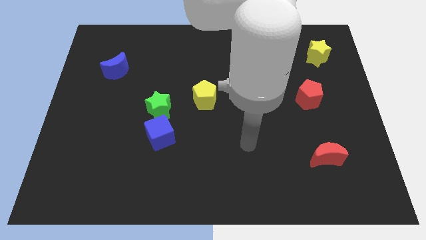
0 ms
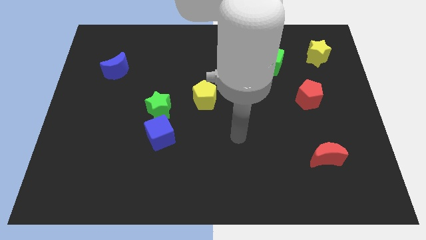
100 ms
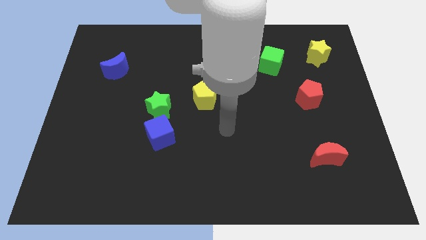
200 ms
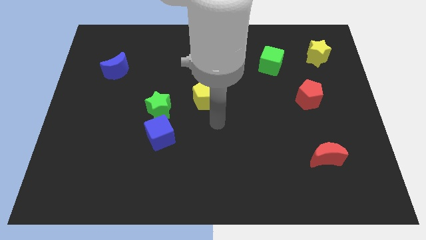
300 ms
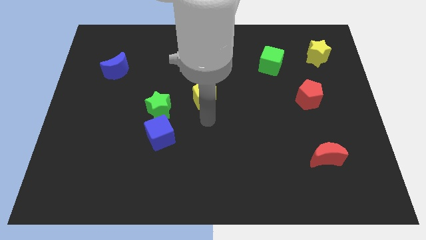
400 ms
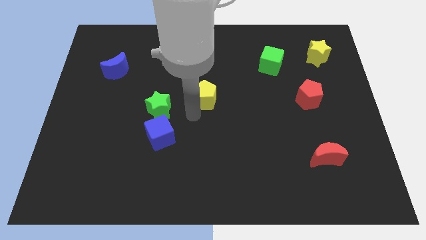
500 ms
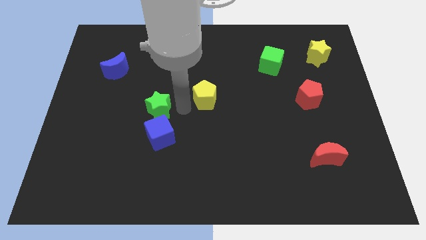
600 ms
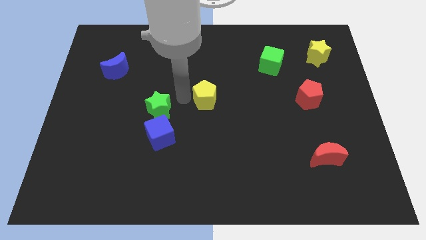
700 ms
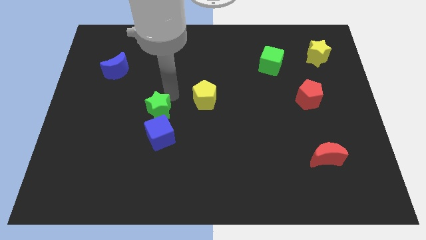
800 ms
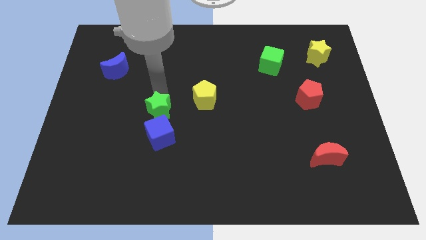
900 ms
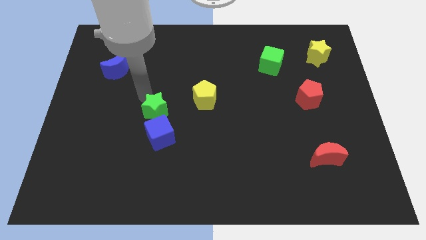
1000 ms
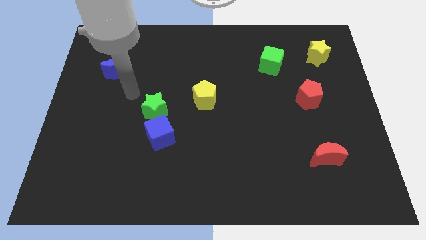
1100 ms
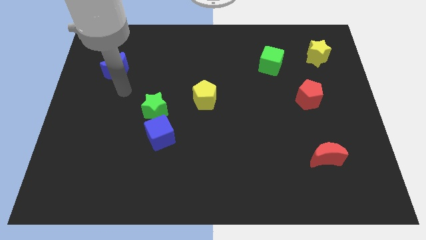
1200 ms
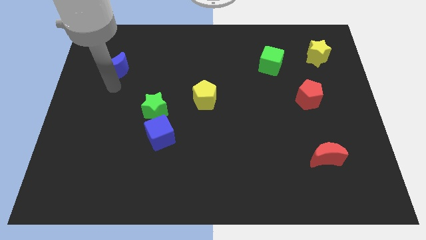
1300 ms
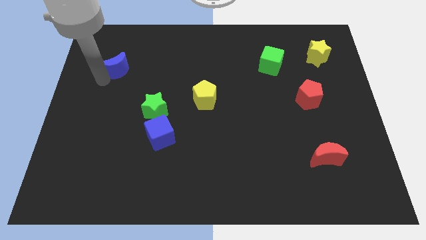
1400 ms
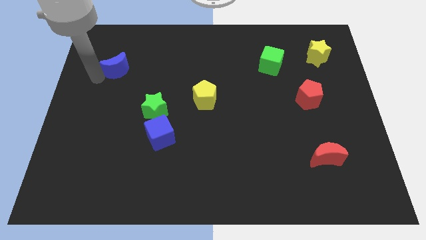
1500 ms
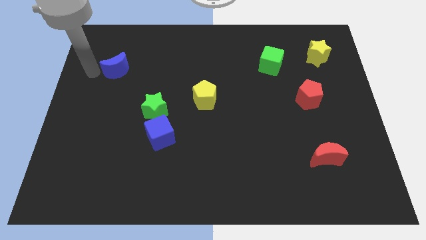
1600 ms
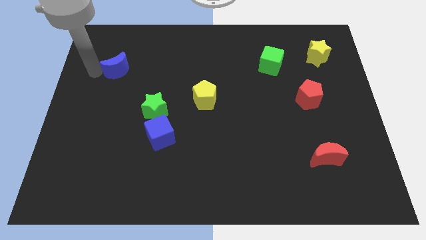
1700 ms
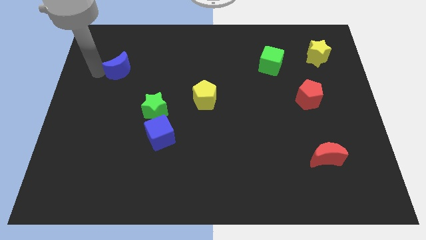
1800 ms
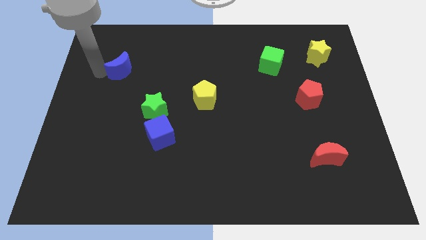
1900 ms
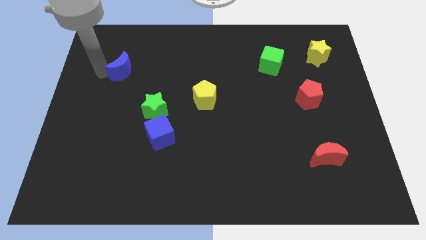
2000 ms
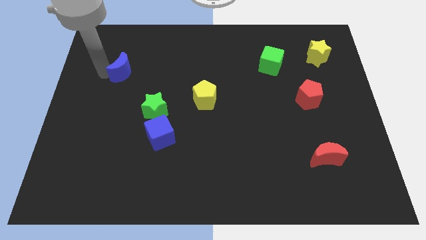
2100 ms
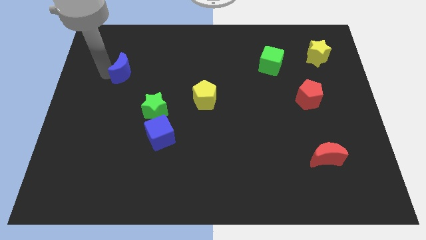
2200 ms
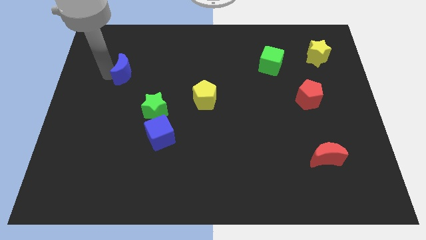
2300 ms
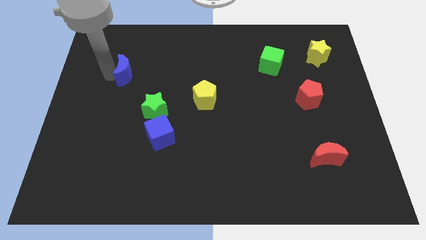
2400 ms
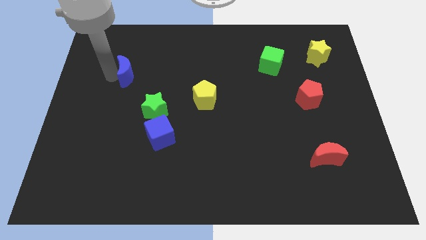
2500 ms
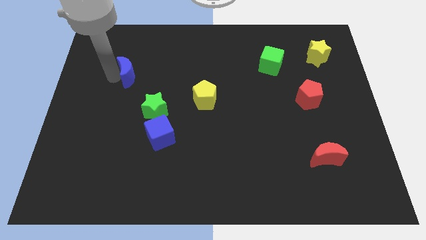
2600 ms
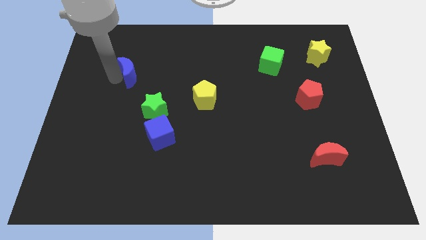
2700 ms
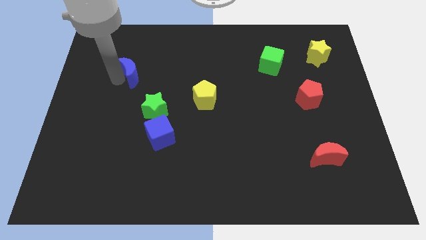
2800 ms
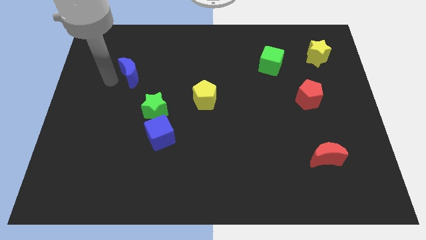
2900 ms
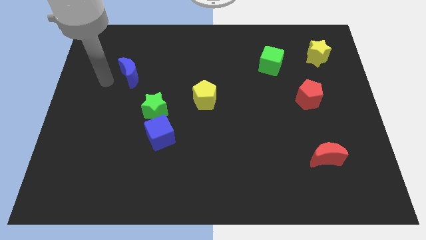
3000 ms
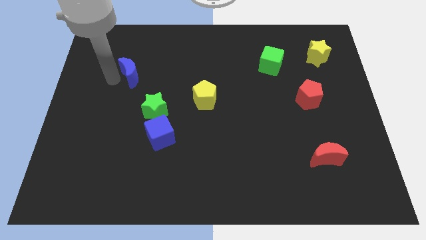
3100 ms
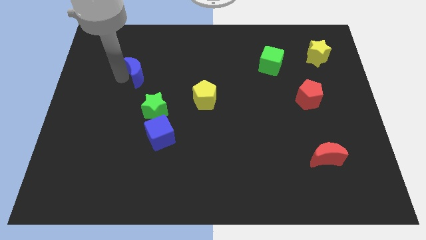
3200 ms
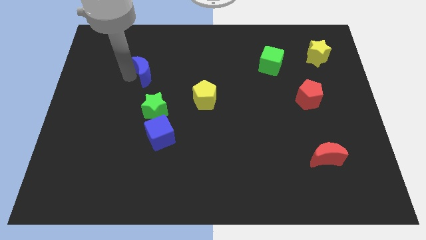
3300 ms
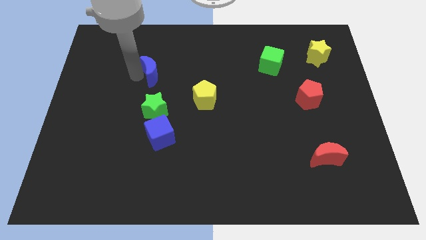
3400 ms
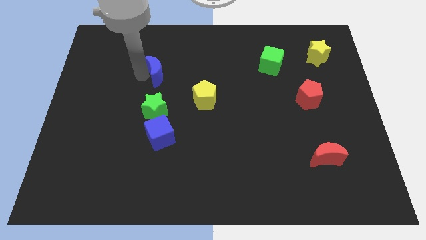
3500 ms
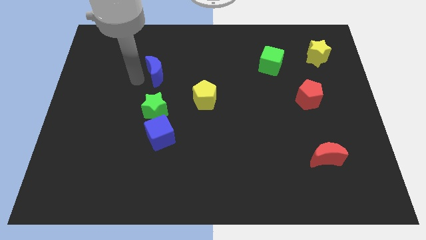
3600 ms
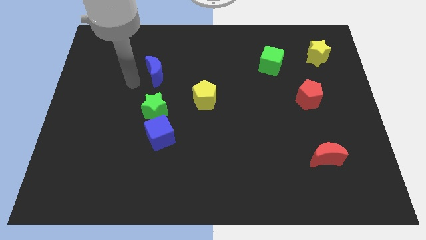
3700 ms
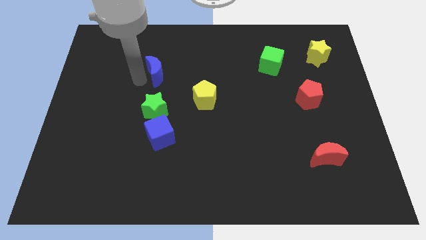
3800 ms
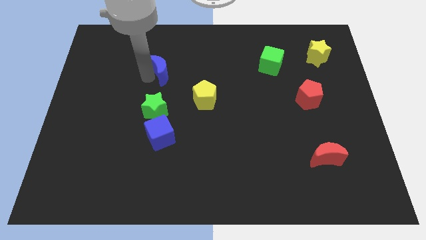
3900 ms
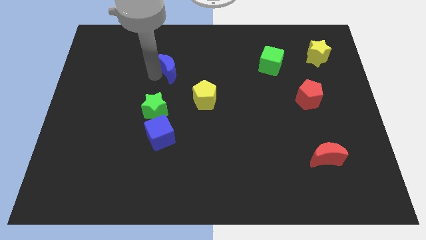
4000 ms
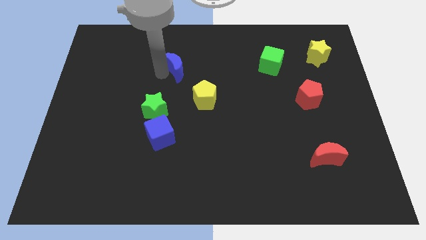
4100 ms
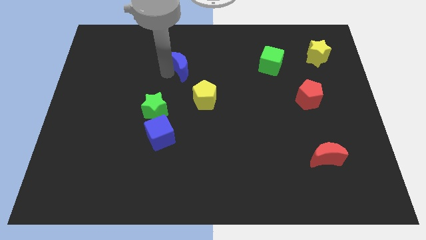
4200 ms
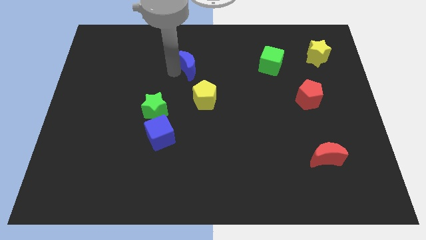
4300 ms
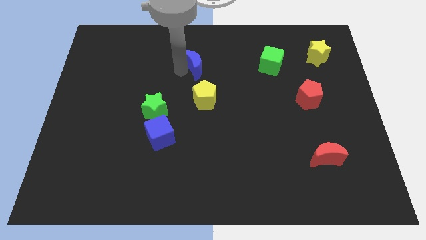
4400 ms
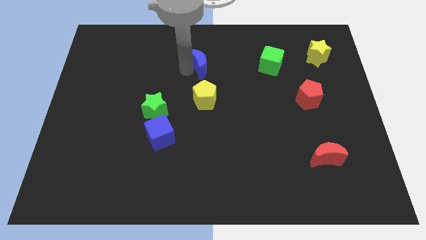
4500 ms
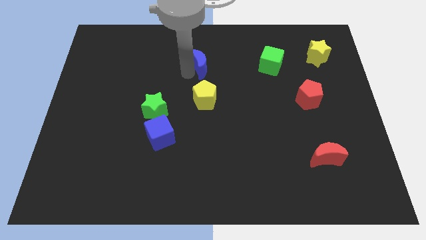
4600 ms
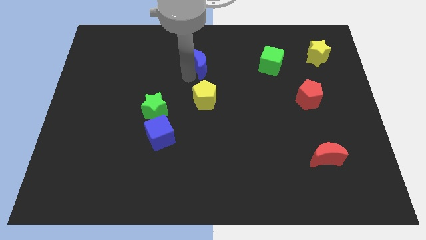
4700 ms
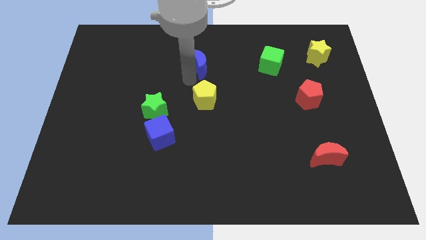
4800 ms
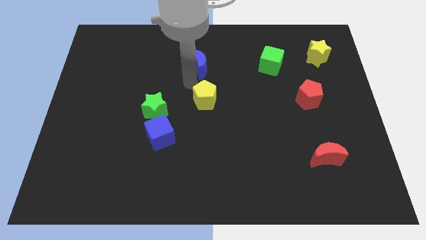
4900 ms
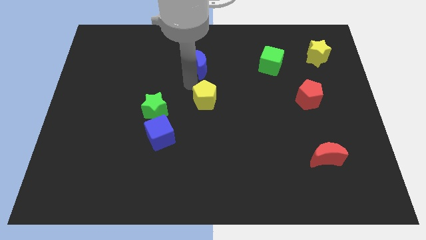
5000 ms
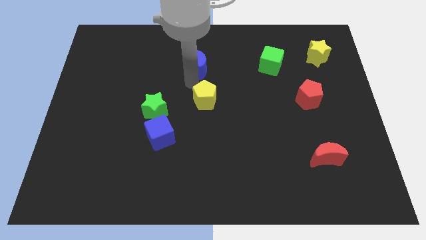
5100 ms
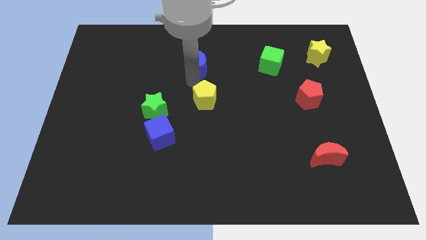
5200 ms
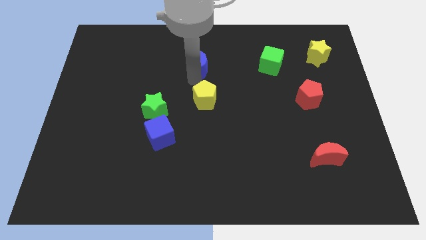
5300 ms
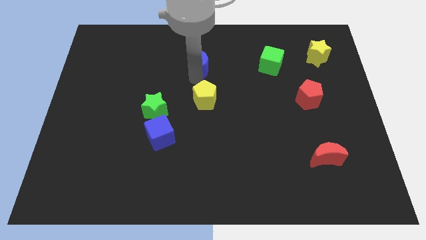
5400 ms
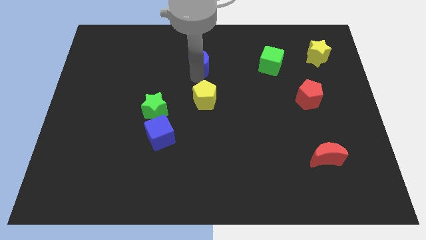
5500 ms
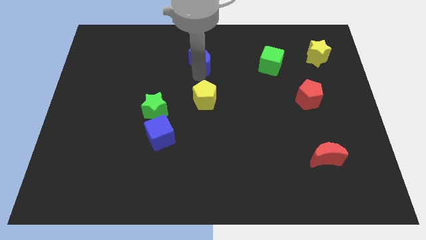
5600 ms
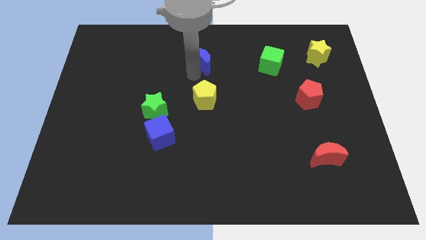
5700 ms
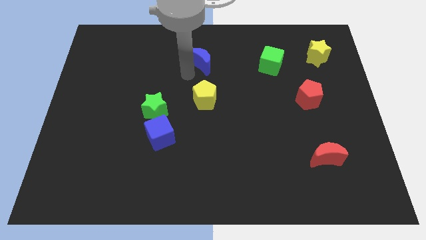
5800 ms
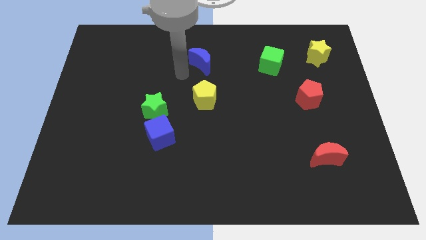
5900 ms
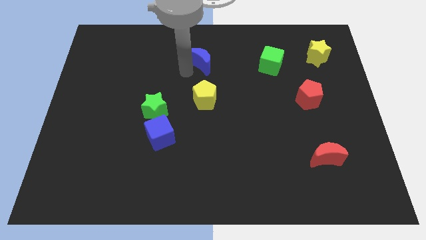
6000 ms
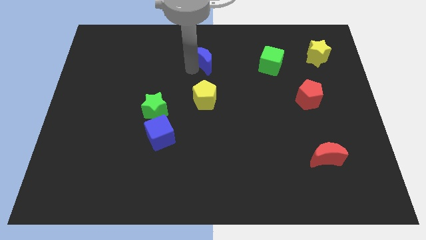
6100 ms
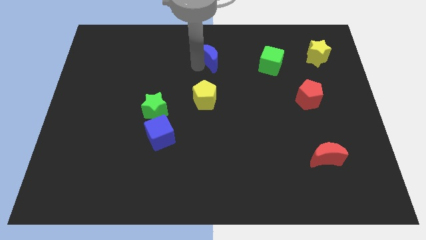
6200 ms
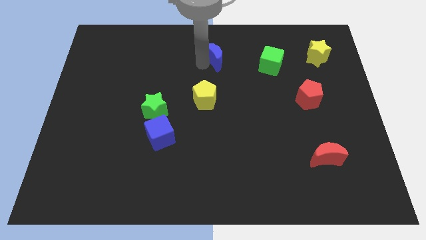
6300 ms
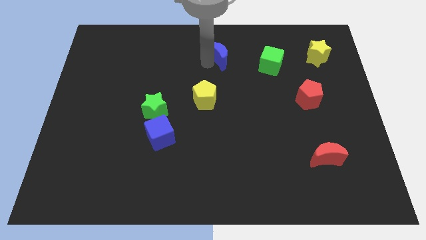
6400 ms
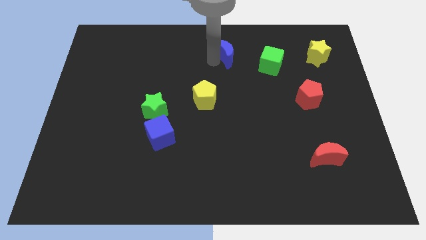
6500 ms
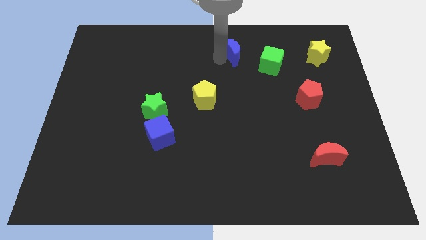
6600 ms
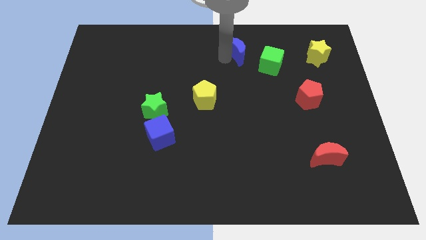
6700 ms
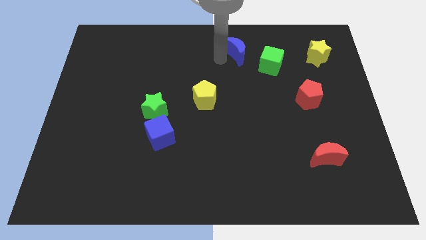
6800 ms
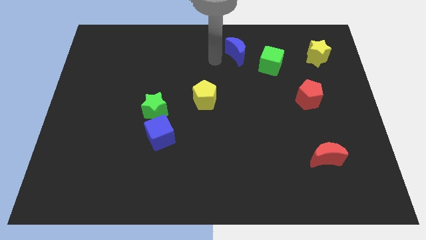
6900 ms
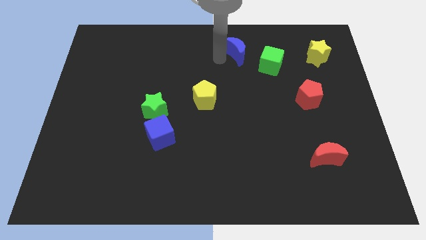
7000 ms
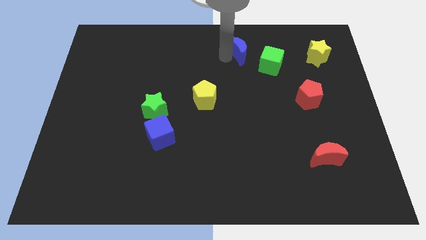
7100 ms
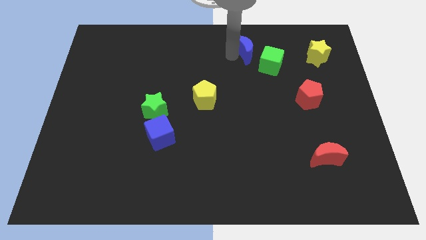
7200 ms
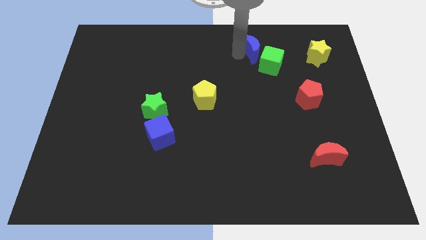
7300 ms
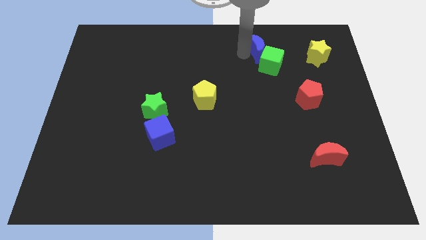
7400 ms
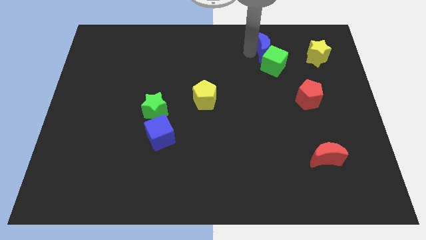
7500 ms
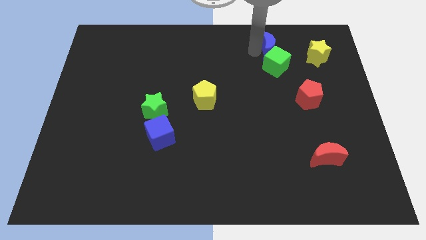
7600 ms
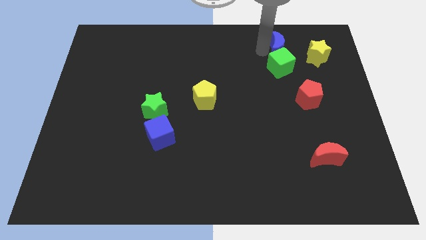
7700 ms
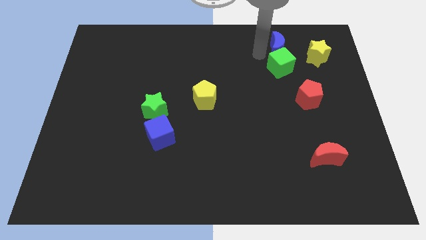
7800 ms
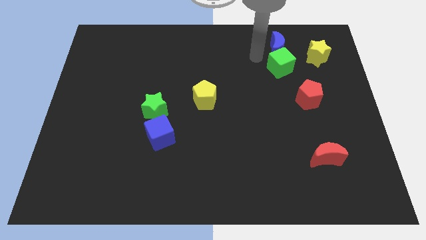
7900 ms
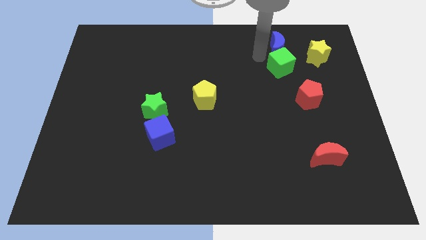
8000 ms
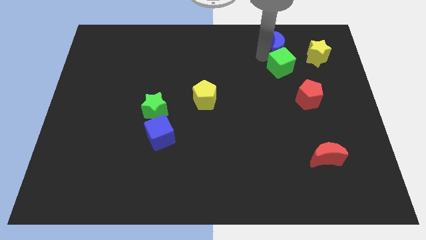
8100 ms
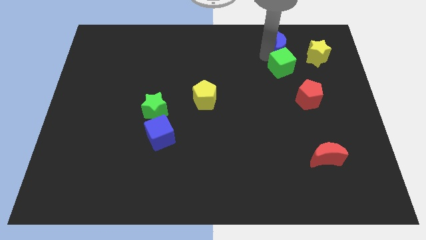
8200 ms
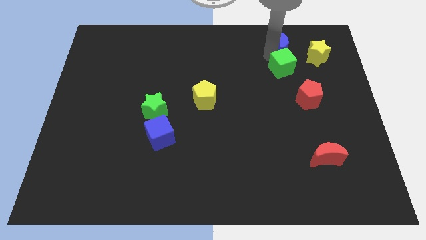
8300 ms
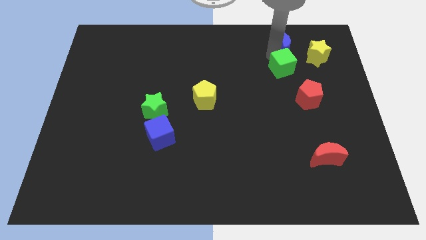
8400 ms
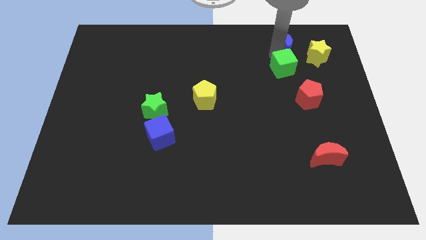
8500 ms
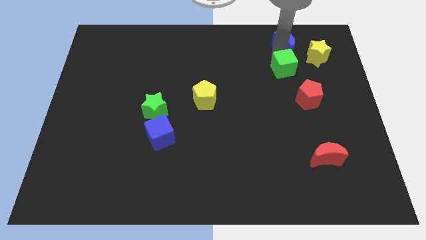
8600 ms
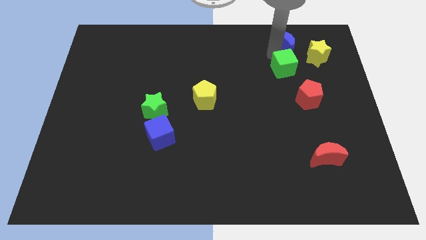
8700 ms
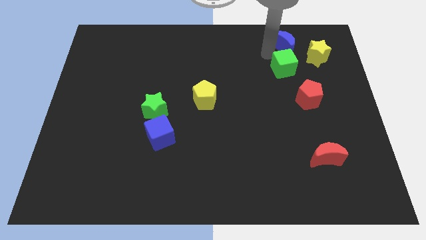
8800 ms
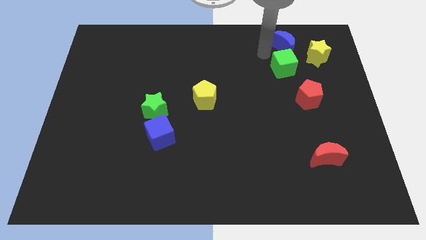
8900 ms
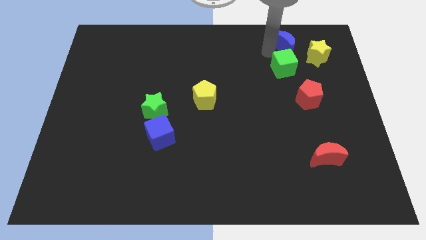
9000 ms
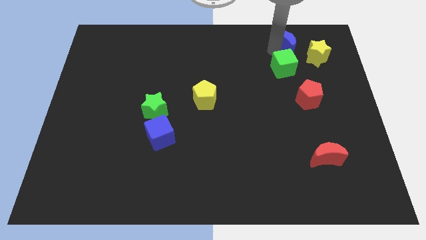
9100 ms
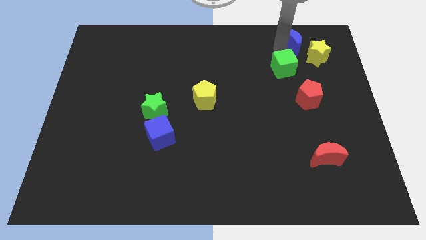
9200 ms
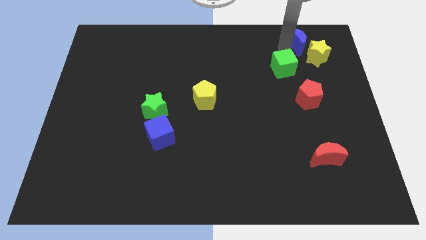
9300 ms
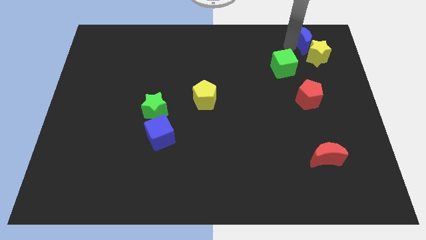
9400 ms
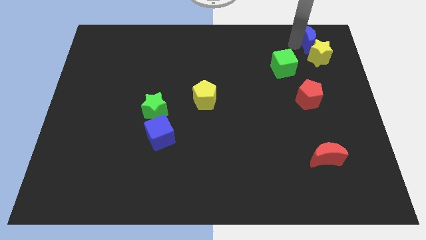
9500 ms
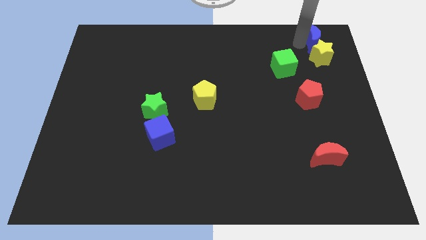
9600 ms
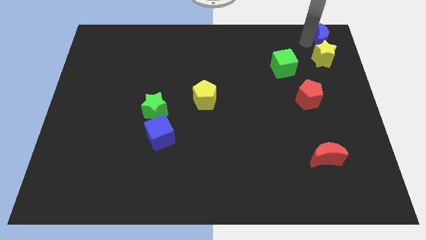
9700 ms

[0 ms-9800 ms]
put the blue moon to the top right corner
